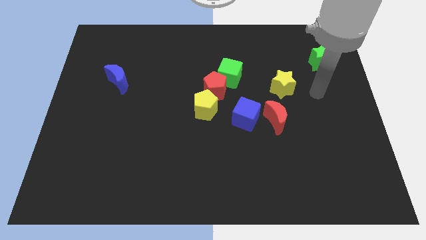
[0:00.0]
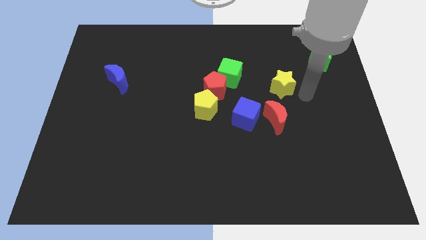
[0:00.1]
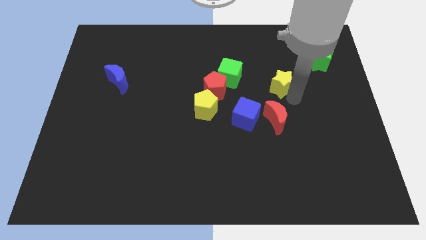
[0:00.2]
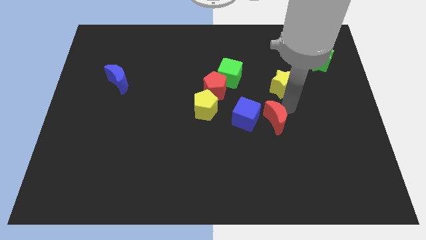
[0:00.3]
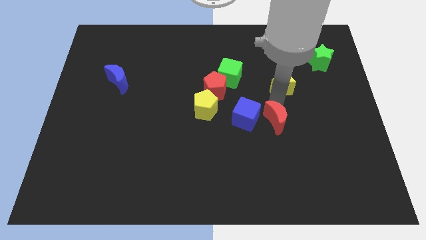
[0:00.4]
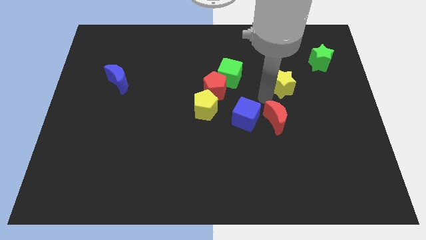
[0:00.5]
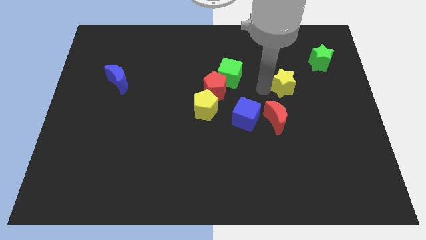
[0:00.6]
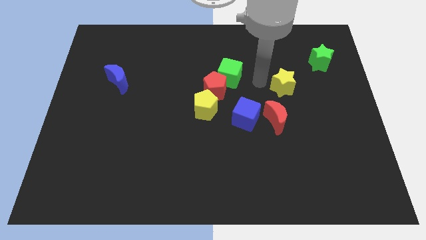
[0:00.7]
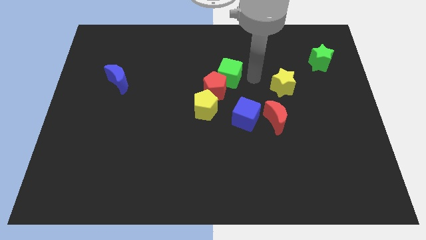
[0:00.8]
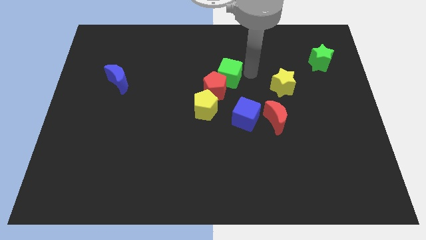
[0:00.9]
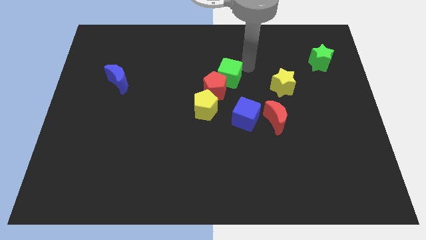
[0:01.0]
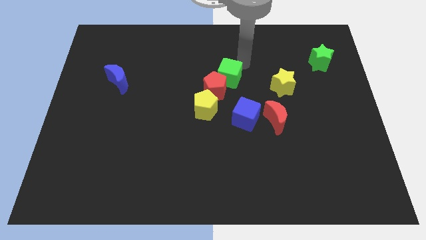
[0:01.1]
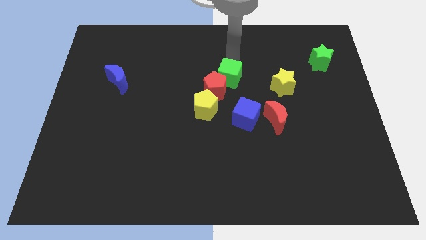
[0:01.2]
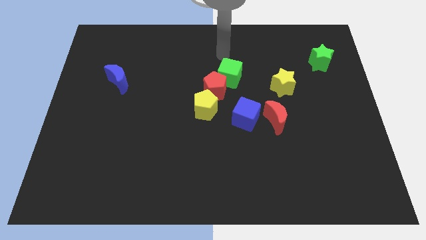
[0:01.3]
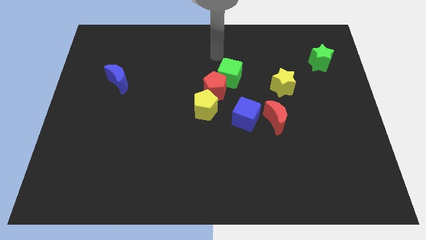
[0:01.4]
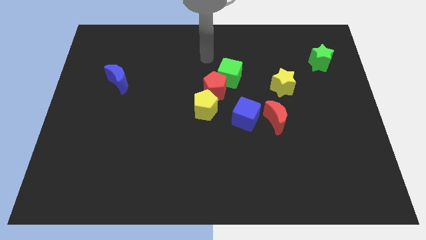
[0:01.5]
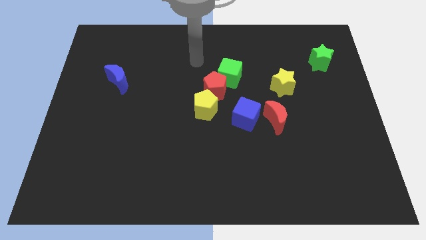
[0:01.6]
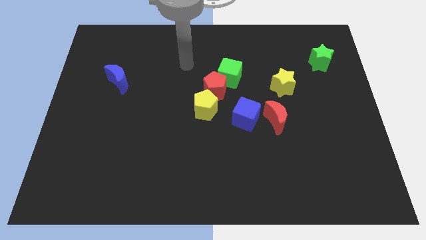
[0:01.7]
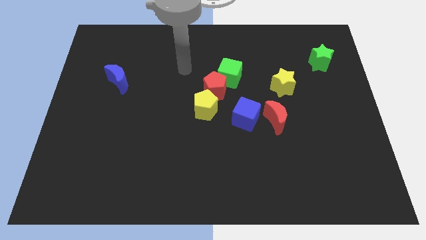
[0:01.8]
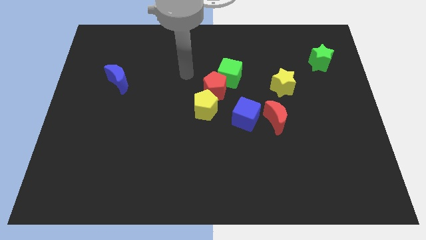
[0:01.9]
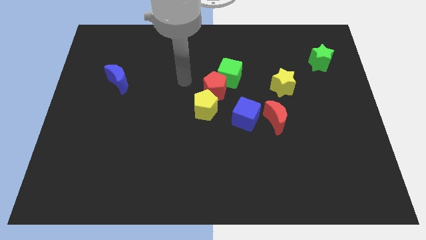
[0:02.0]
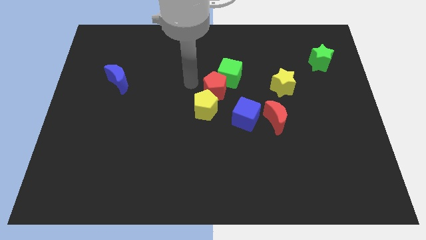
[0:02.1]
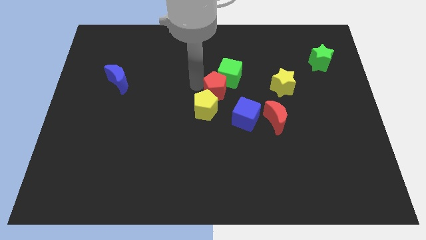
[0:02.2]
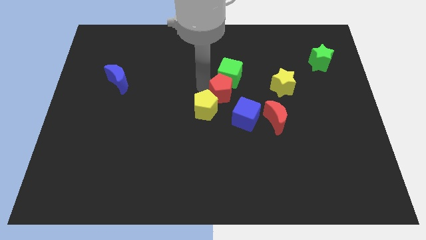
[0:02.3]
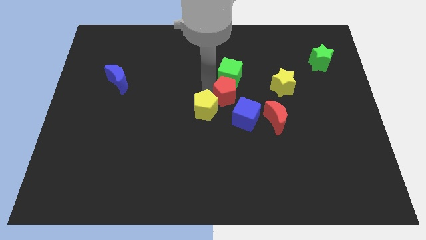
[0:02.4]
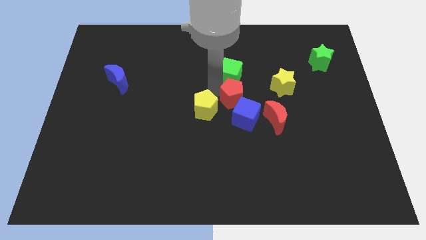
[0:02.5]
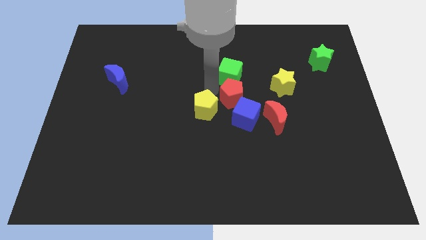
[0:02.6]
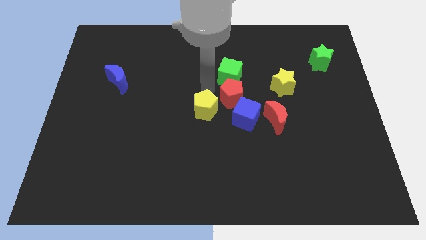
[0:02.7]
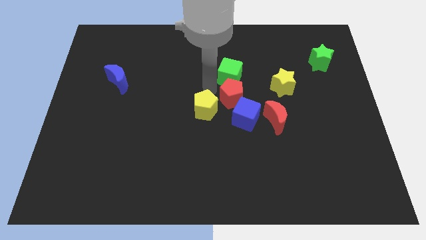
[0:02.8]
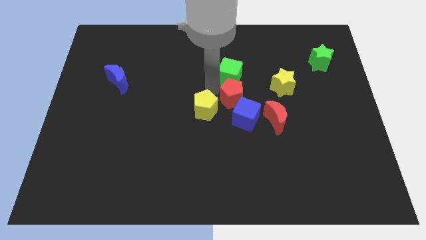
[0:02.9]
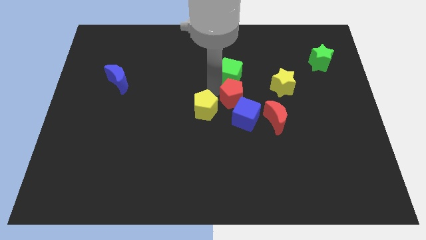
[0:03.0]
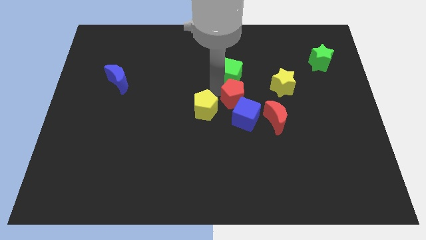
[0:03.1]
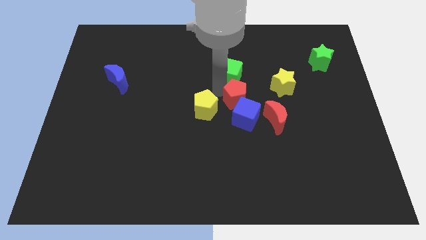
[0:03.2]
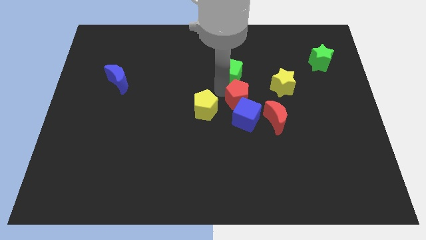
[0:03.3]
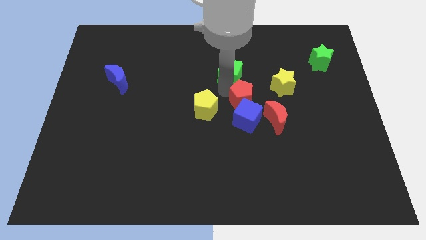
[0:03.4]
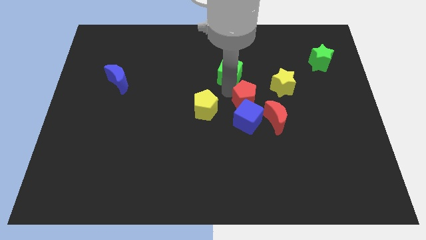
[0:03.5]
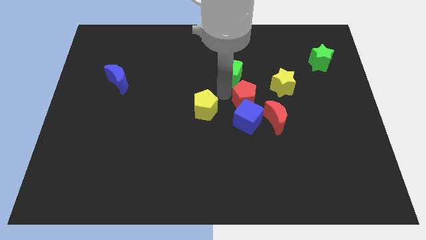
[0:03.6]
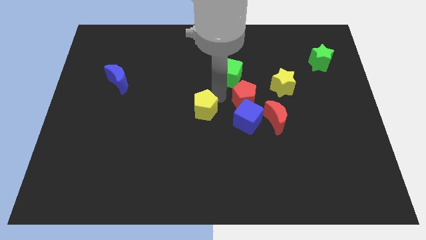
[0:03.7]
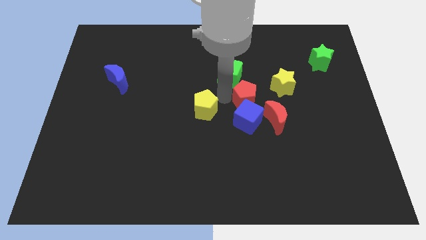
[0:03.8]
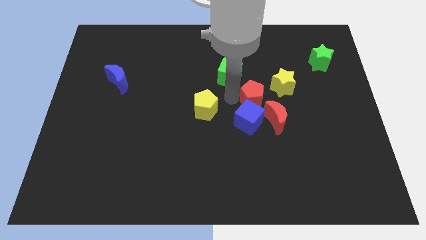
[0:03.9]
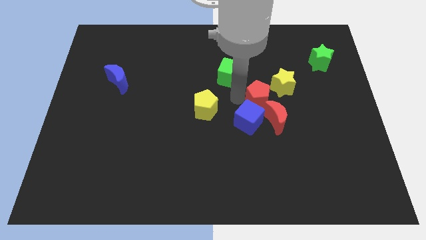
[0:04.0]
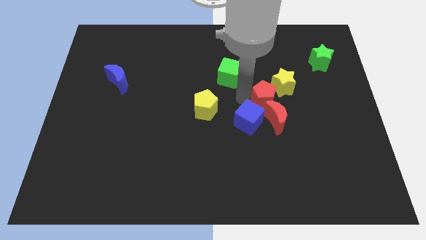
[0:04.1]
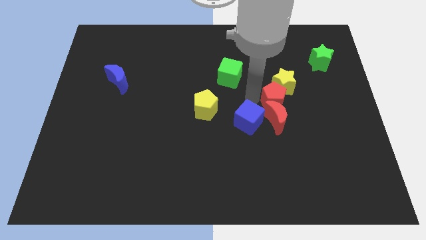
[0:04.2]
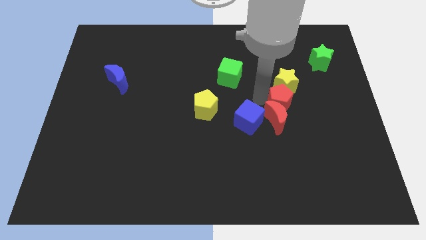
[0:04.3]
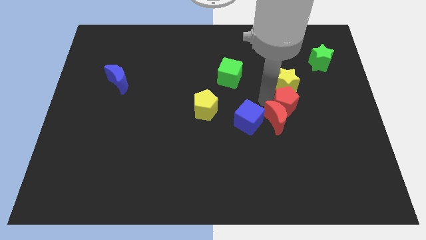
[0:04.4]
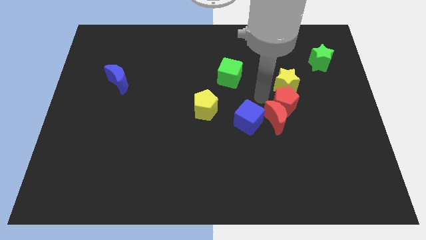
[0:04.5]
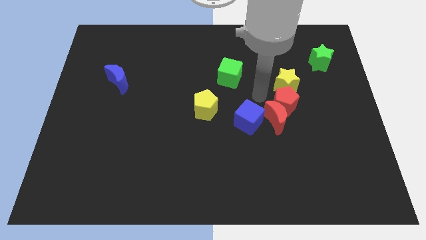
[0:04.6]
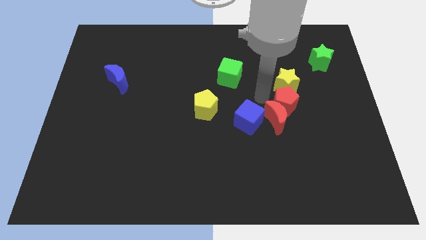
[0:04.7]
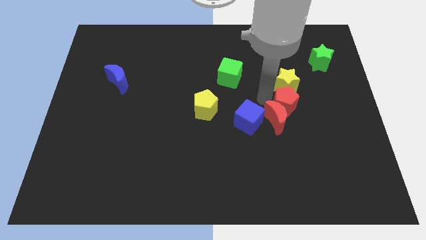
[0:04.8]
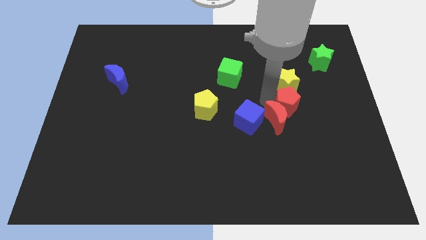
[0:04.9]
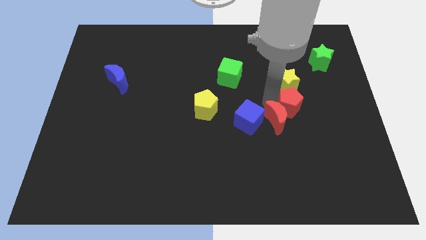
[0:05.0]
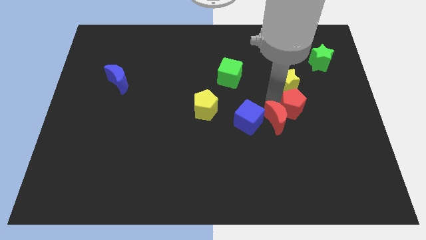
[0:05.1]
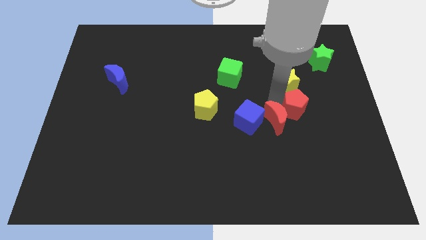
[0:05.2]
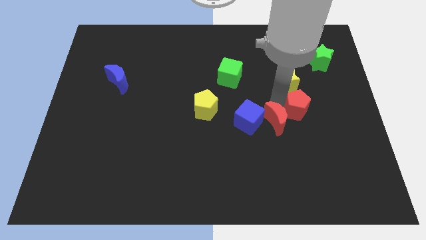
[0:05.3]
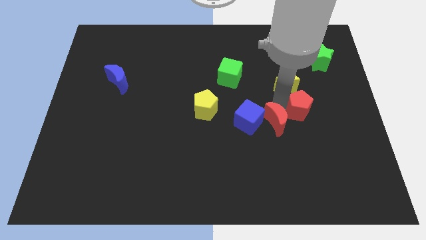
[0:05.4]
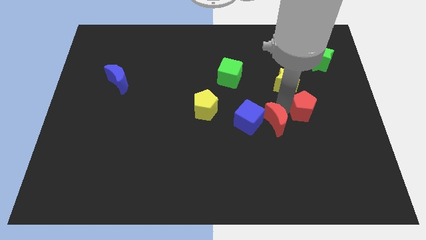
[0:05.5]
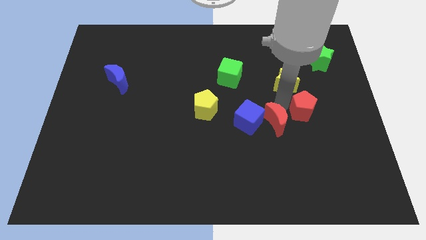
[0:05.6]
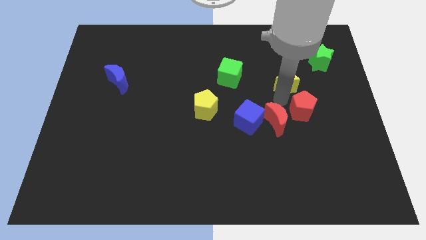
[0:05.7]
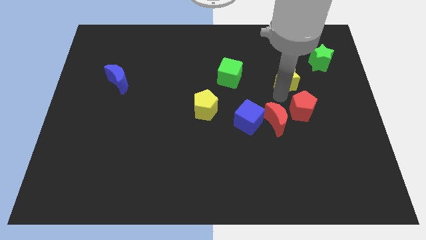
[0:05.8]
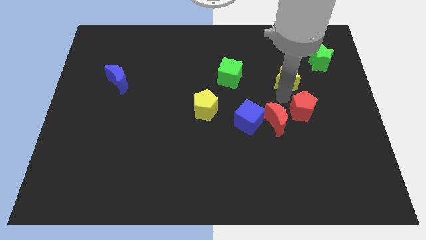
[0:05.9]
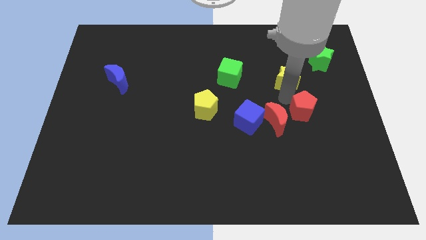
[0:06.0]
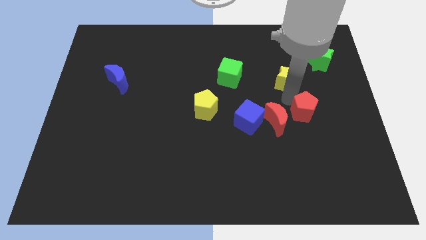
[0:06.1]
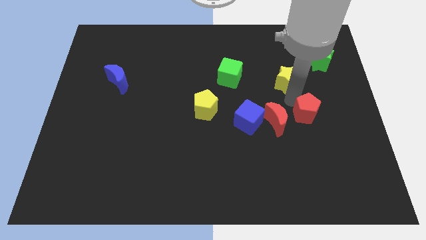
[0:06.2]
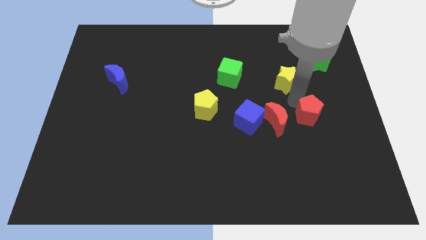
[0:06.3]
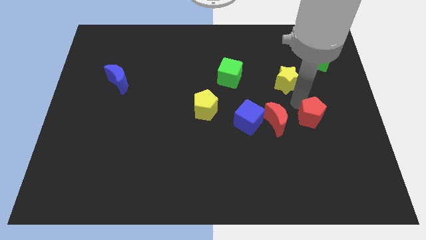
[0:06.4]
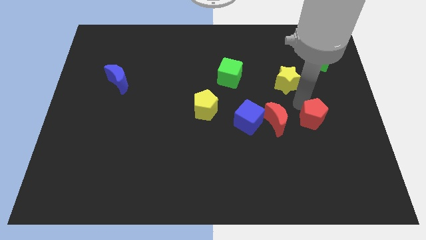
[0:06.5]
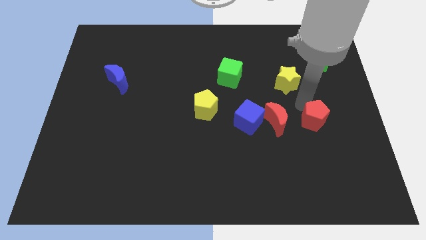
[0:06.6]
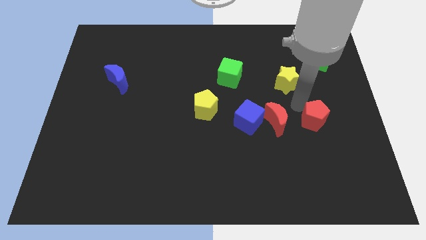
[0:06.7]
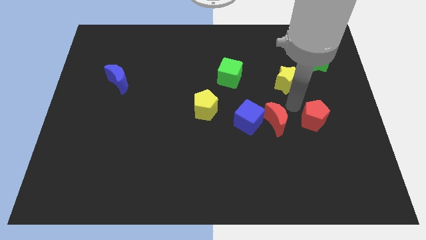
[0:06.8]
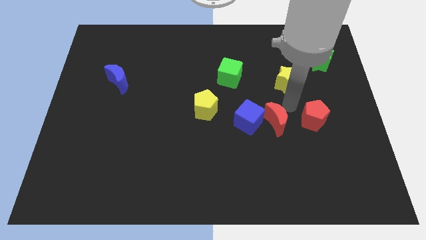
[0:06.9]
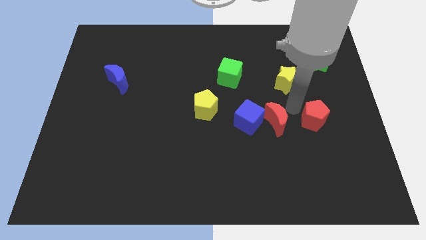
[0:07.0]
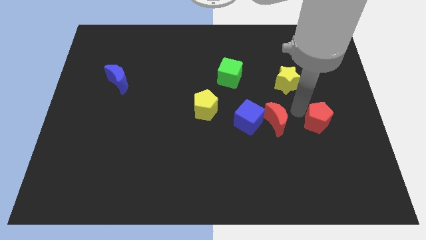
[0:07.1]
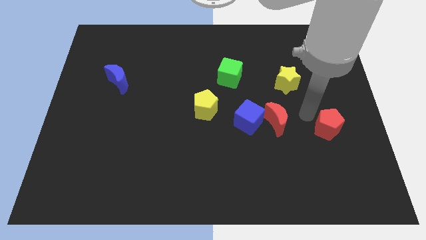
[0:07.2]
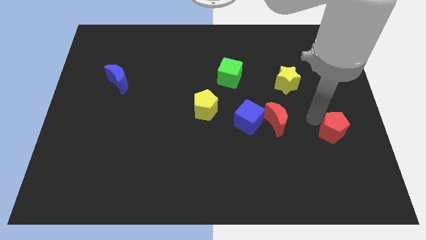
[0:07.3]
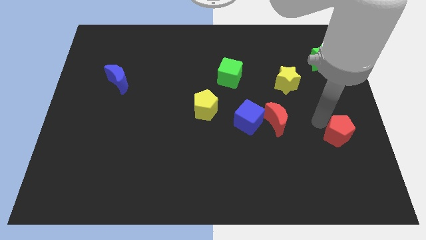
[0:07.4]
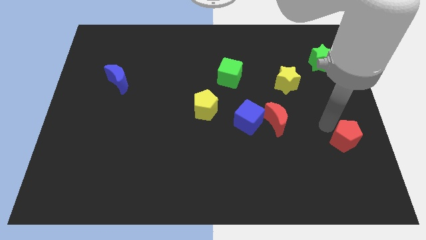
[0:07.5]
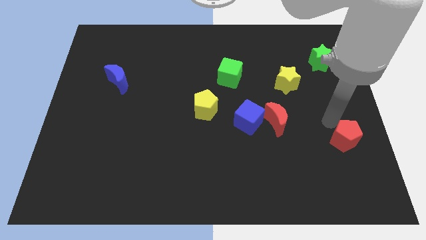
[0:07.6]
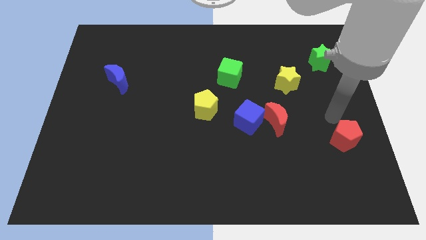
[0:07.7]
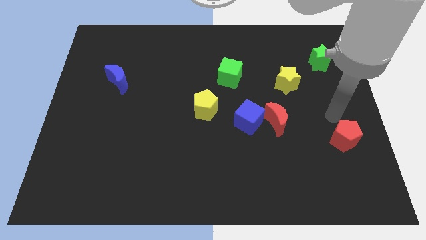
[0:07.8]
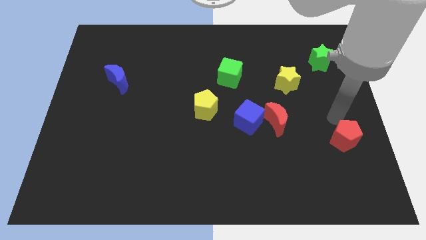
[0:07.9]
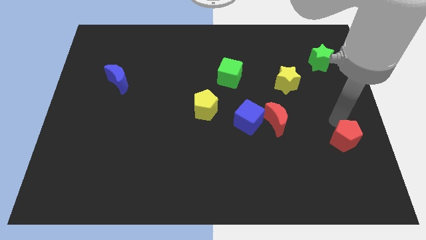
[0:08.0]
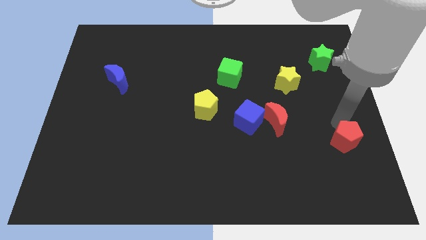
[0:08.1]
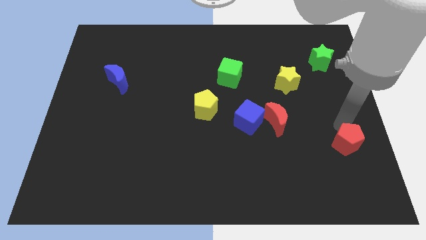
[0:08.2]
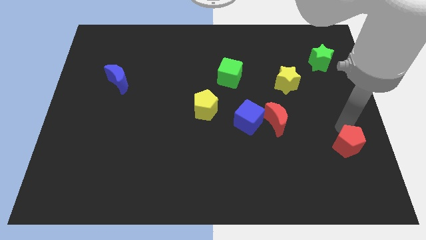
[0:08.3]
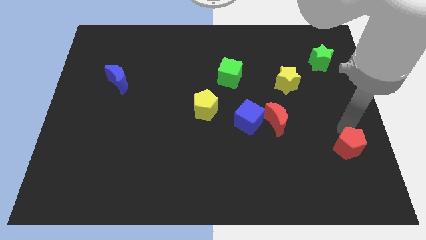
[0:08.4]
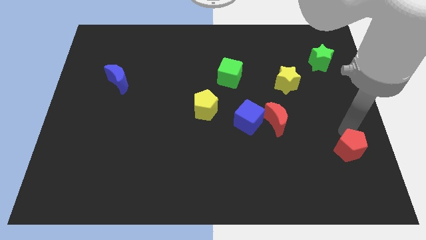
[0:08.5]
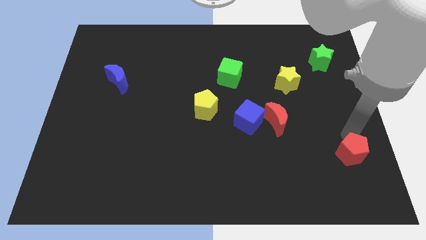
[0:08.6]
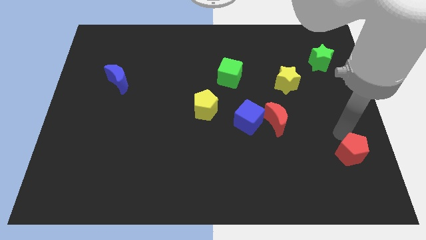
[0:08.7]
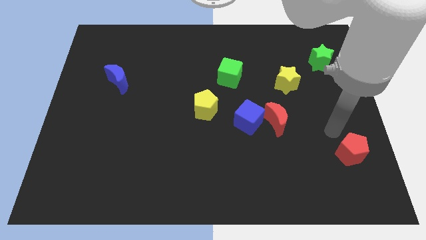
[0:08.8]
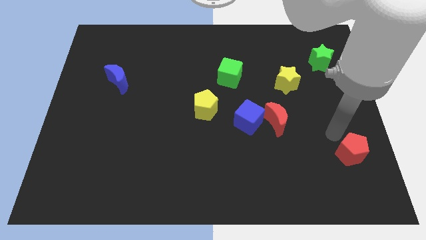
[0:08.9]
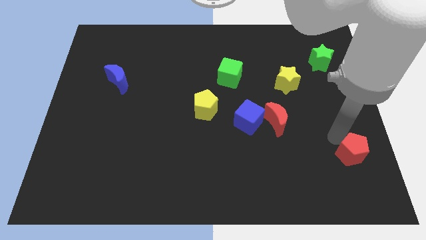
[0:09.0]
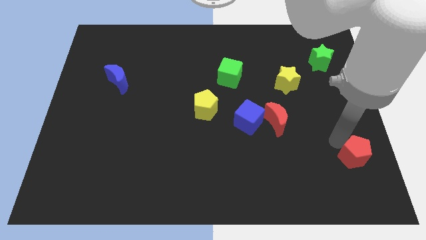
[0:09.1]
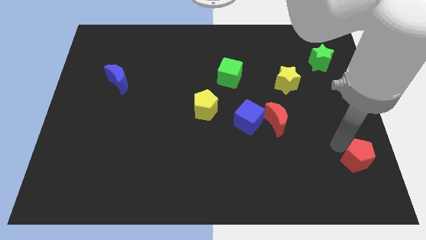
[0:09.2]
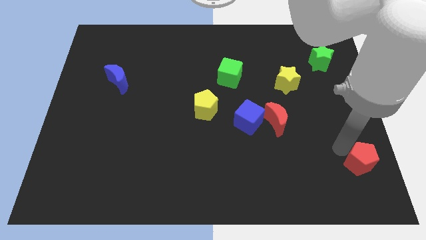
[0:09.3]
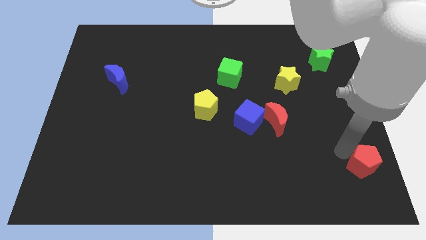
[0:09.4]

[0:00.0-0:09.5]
move the red pentagon to the lower right corner
